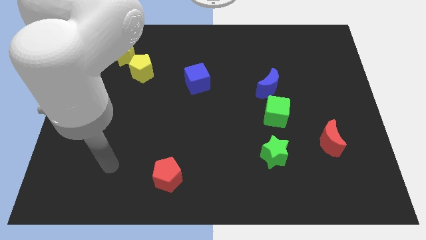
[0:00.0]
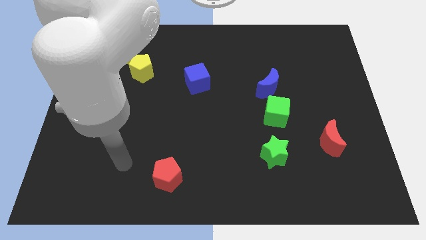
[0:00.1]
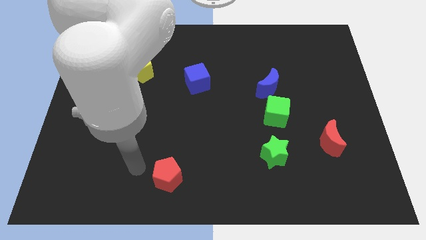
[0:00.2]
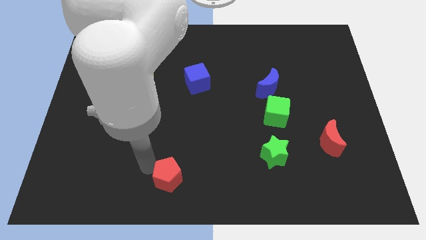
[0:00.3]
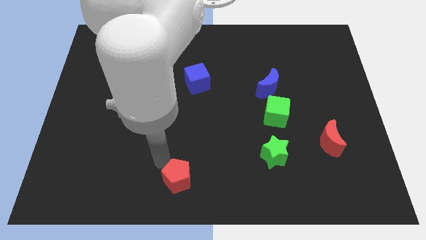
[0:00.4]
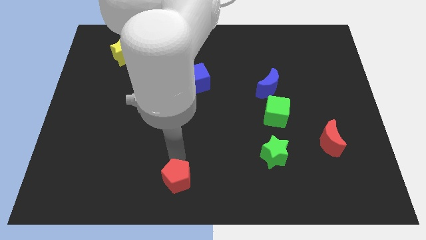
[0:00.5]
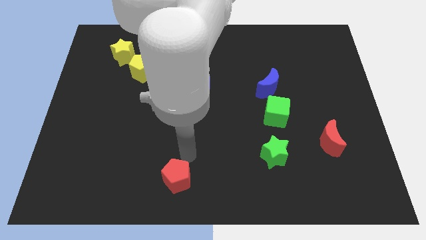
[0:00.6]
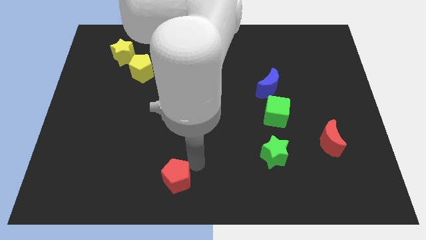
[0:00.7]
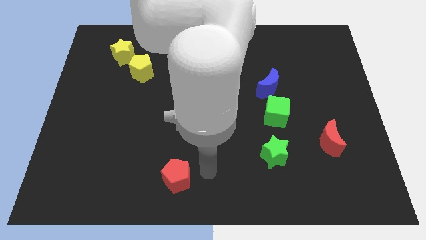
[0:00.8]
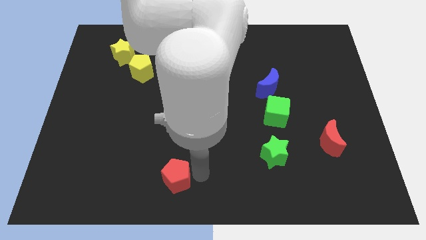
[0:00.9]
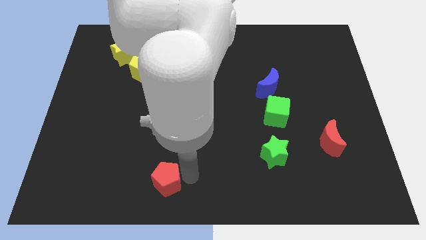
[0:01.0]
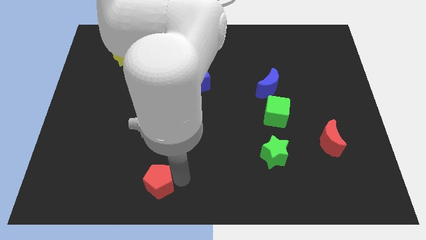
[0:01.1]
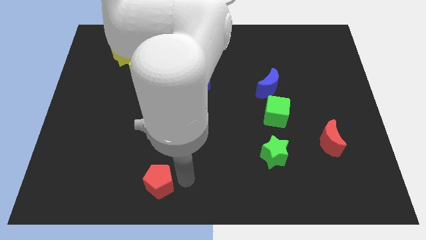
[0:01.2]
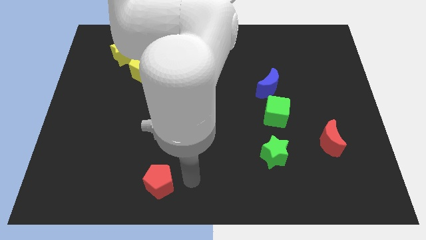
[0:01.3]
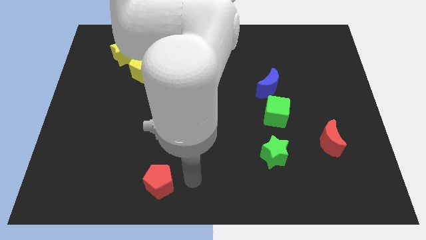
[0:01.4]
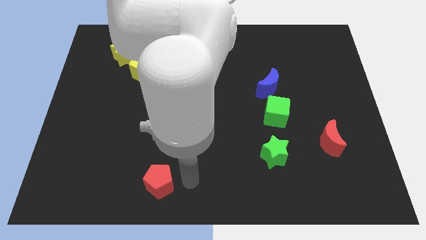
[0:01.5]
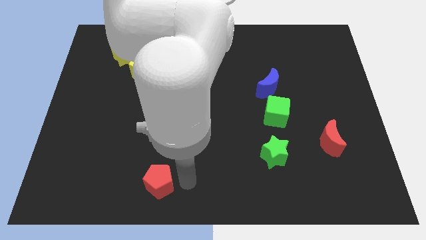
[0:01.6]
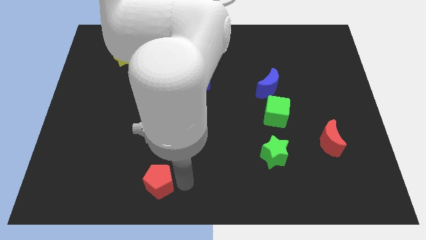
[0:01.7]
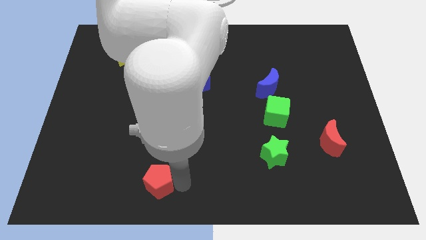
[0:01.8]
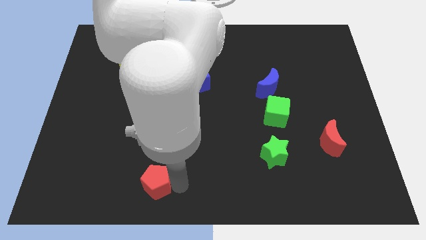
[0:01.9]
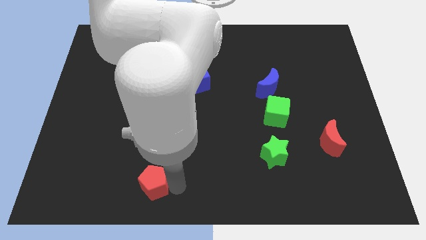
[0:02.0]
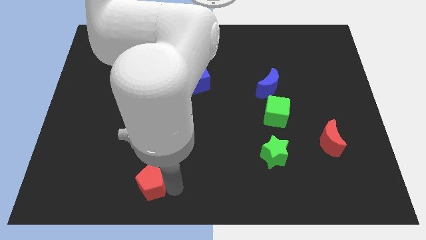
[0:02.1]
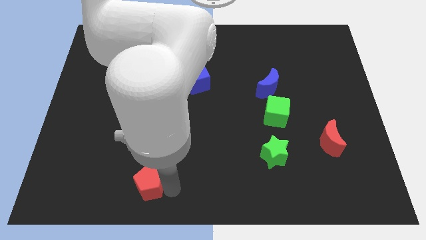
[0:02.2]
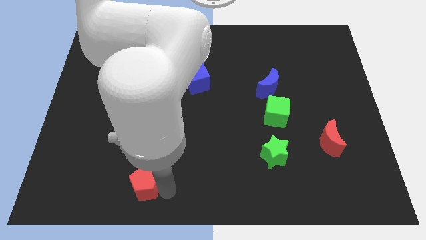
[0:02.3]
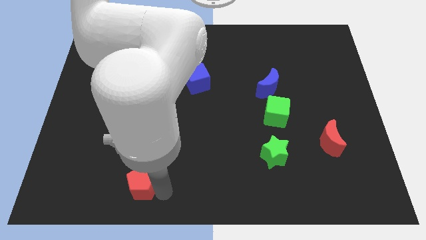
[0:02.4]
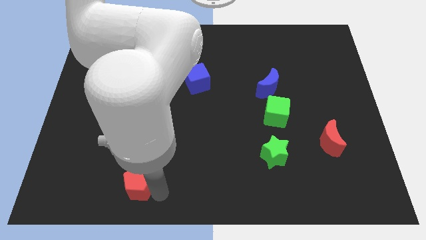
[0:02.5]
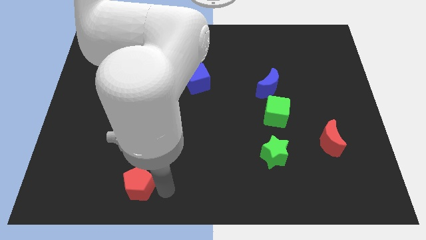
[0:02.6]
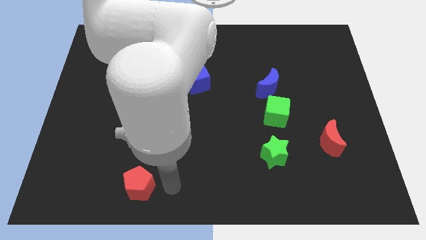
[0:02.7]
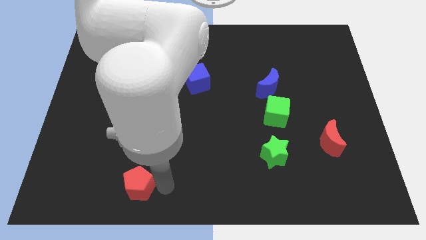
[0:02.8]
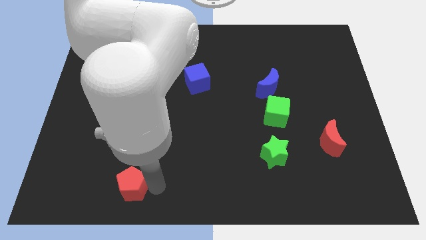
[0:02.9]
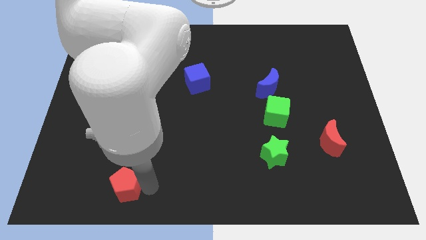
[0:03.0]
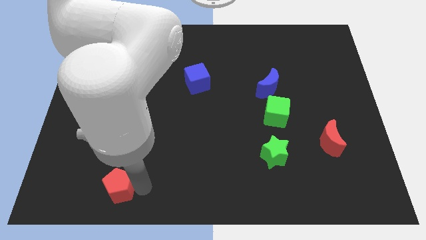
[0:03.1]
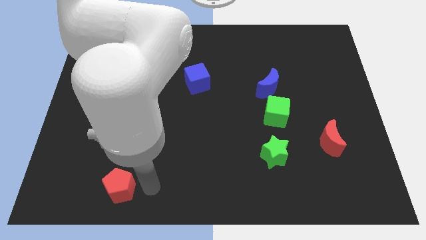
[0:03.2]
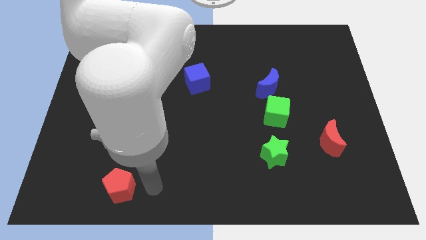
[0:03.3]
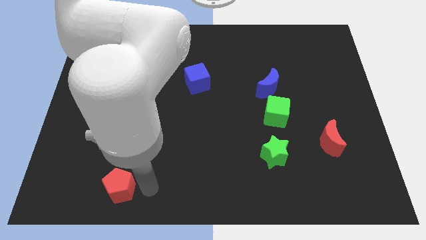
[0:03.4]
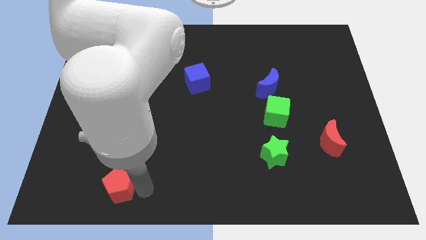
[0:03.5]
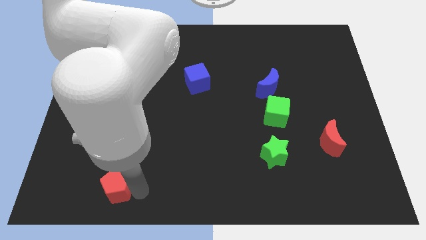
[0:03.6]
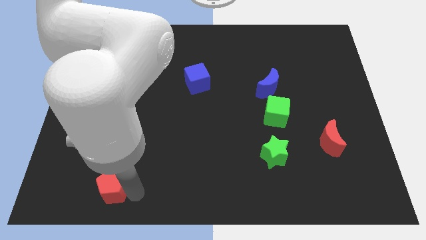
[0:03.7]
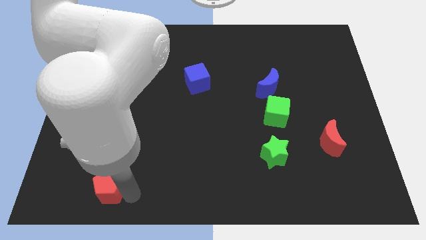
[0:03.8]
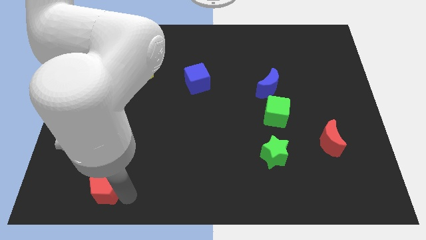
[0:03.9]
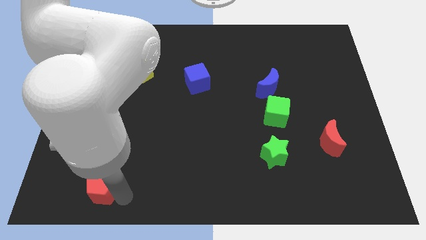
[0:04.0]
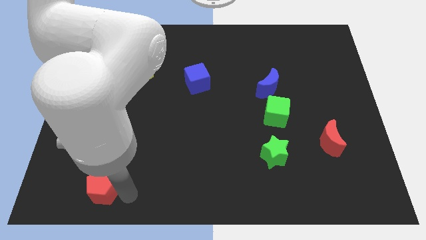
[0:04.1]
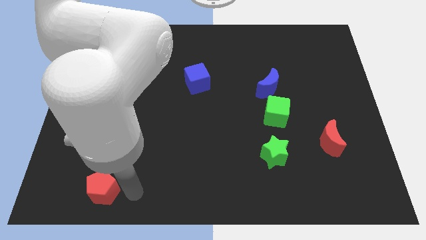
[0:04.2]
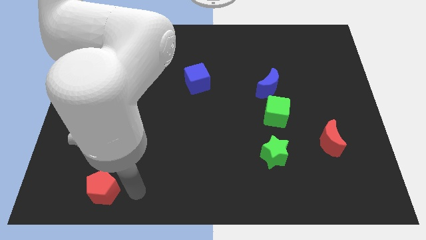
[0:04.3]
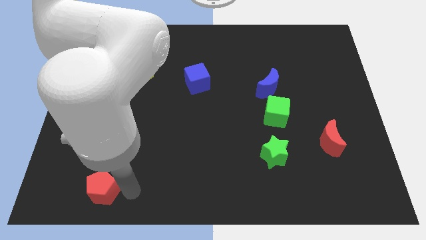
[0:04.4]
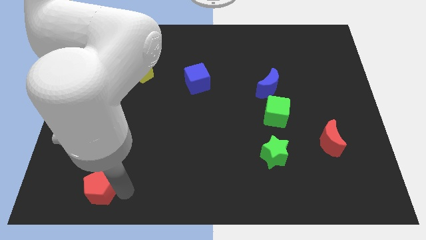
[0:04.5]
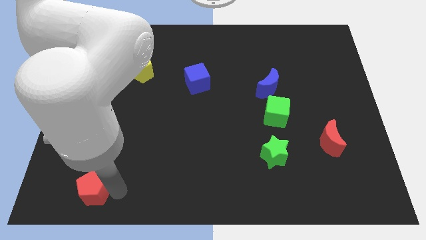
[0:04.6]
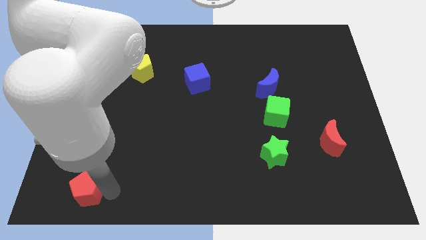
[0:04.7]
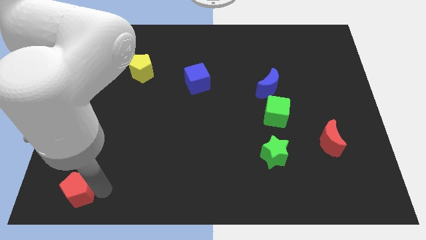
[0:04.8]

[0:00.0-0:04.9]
put the red pentagon to the lower left corner

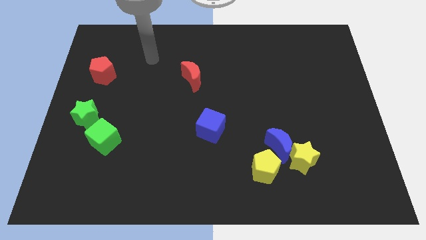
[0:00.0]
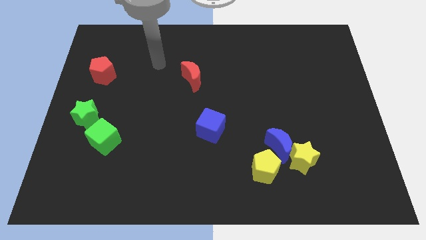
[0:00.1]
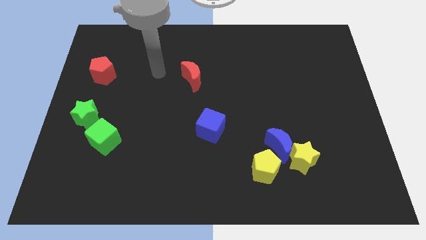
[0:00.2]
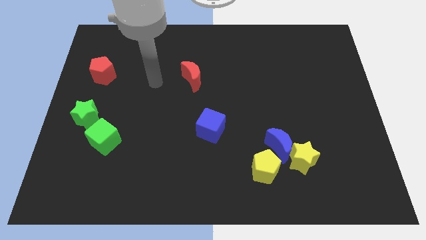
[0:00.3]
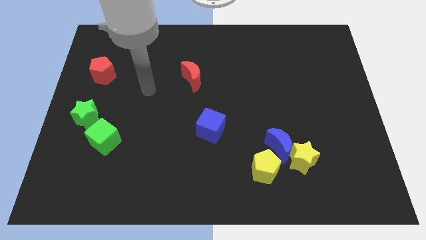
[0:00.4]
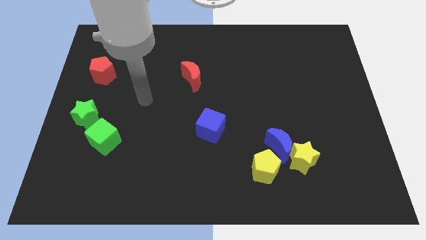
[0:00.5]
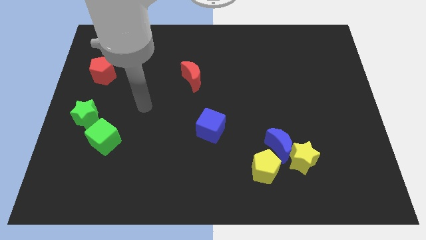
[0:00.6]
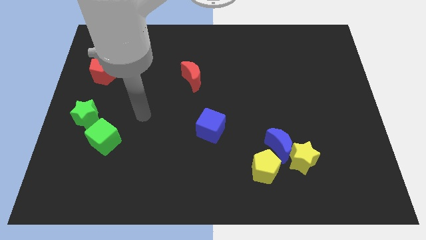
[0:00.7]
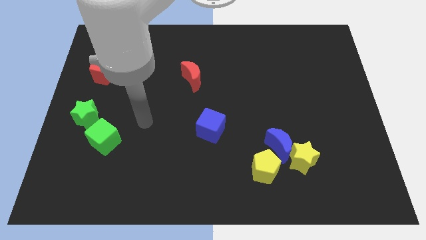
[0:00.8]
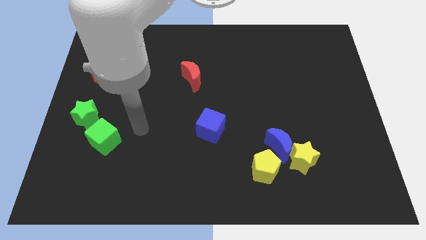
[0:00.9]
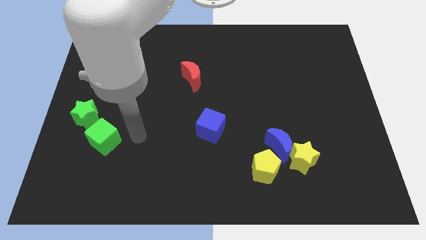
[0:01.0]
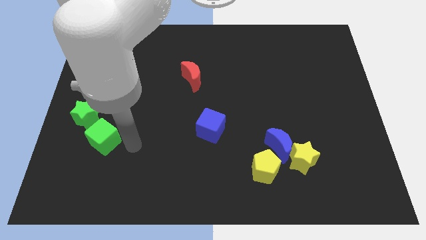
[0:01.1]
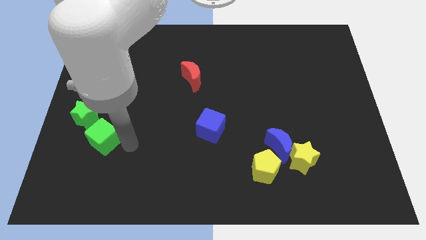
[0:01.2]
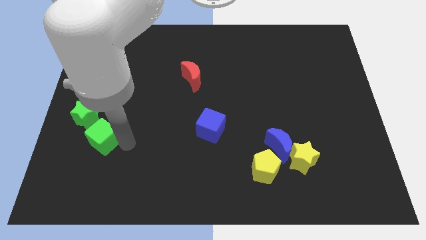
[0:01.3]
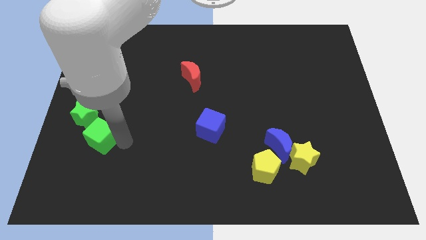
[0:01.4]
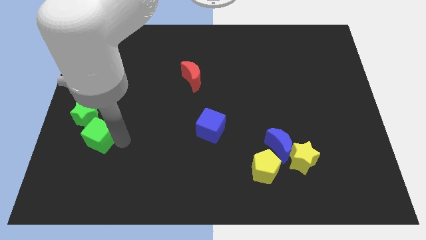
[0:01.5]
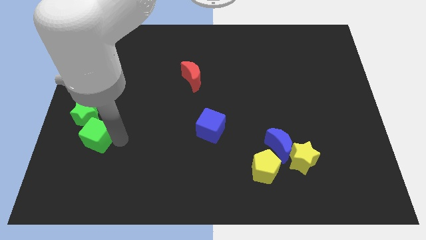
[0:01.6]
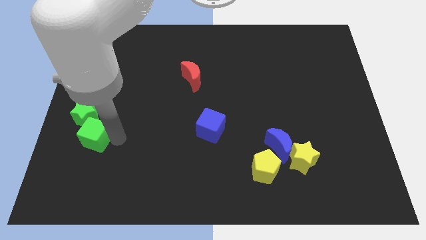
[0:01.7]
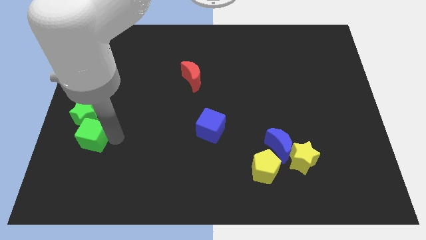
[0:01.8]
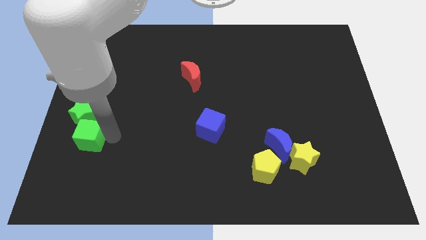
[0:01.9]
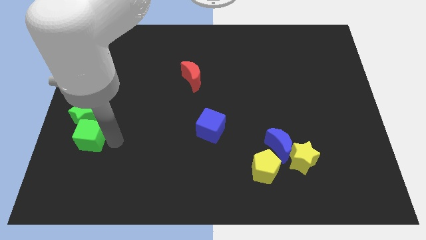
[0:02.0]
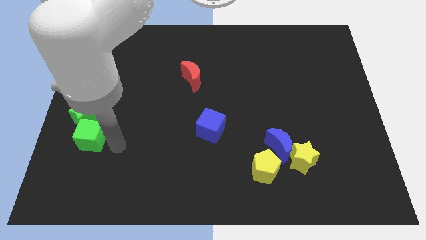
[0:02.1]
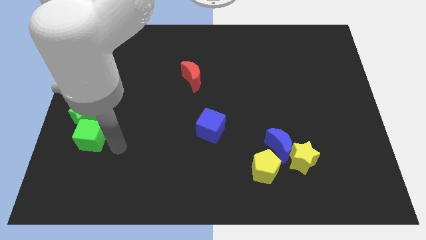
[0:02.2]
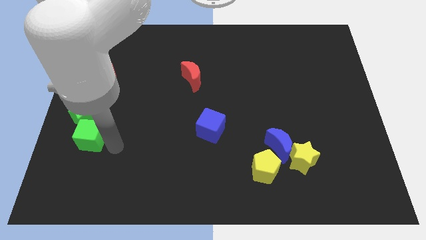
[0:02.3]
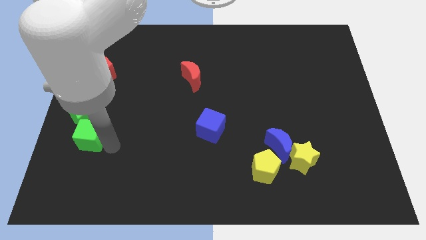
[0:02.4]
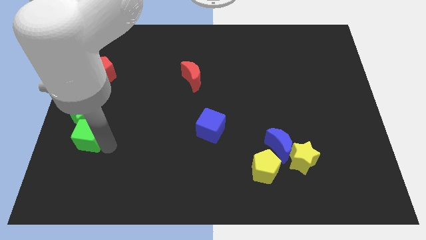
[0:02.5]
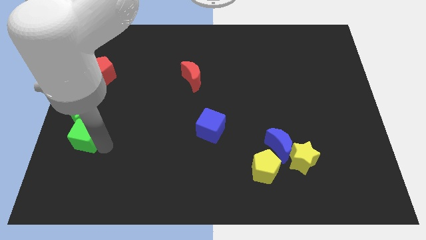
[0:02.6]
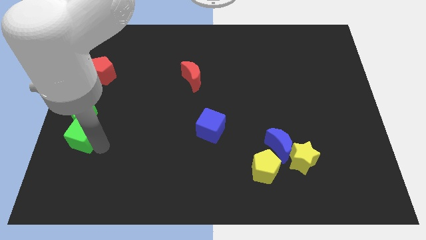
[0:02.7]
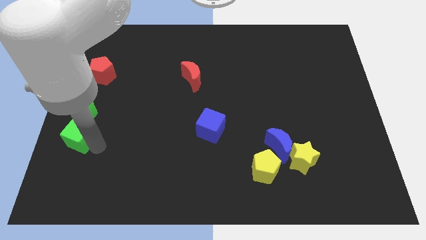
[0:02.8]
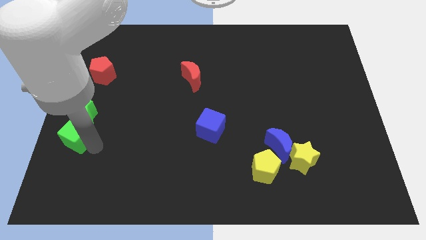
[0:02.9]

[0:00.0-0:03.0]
put the green cube to the left side of the board
